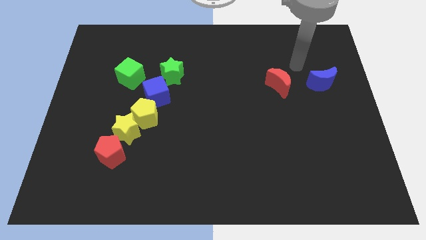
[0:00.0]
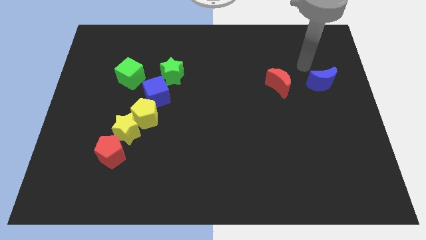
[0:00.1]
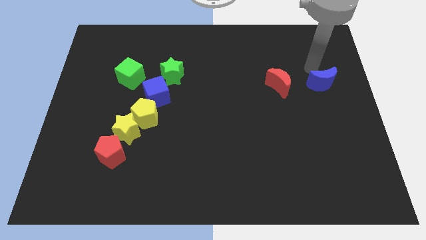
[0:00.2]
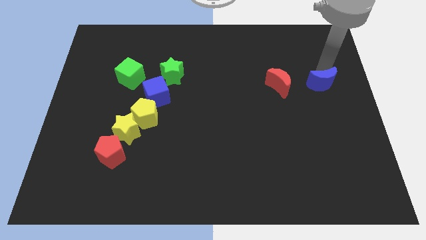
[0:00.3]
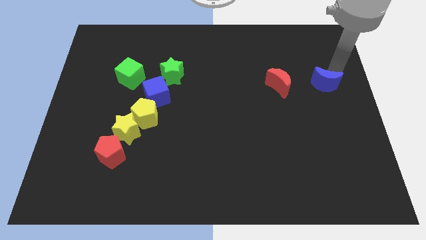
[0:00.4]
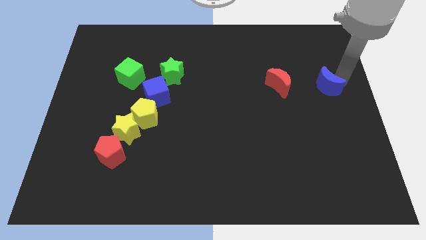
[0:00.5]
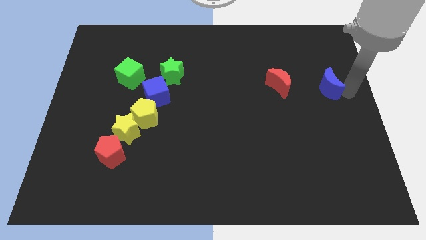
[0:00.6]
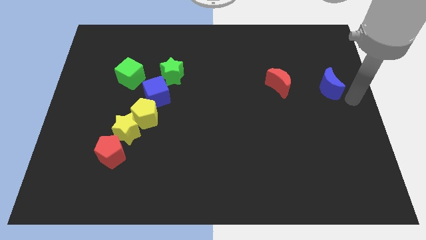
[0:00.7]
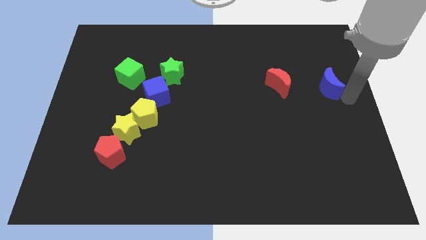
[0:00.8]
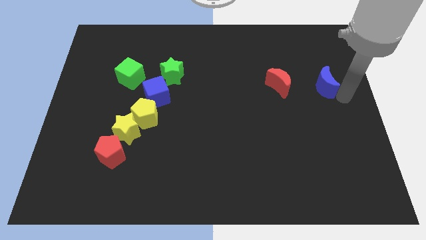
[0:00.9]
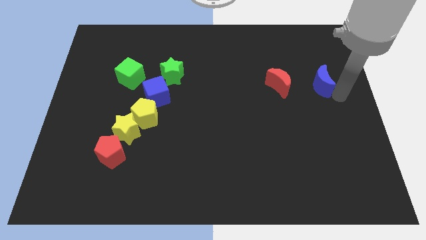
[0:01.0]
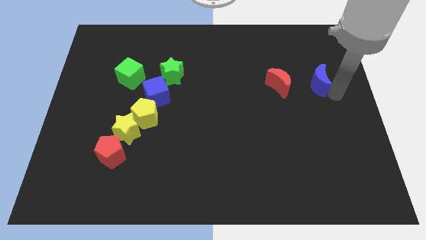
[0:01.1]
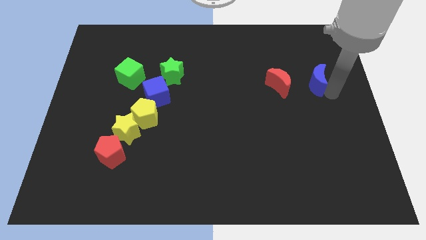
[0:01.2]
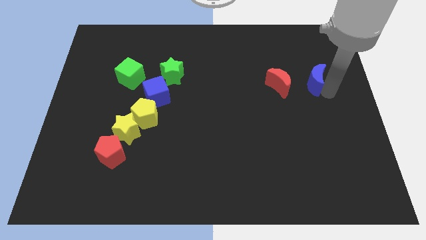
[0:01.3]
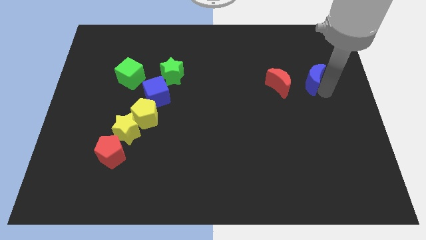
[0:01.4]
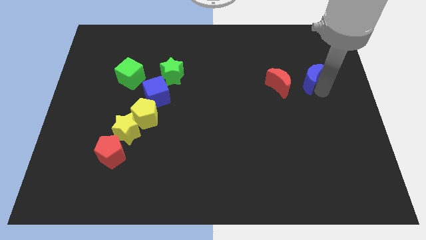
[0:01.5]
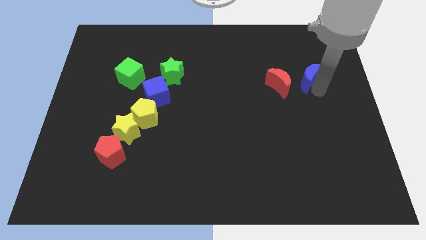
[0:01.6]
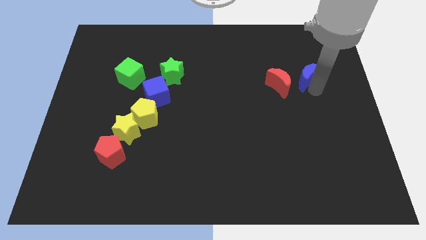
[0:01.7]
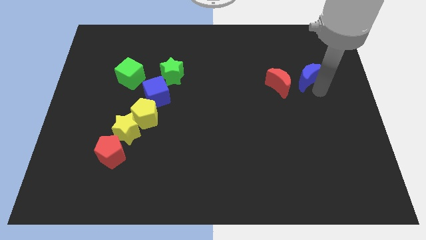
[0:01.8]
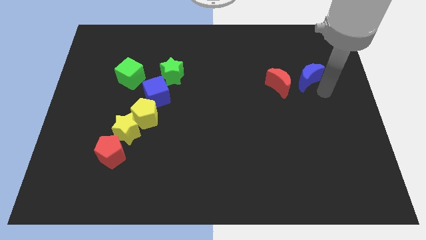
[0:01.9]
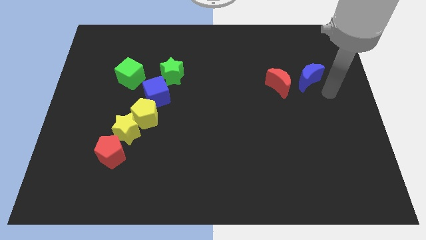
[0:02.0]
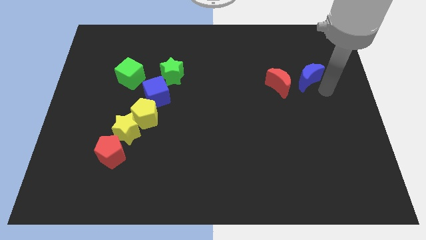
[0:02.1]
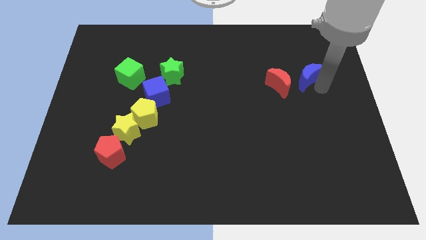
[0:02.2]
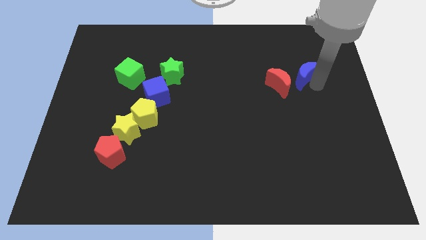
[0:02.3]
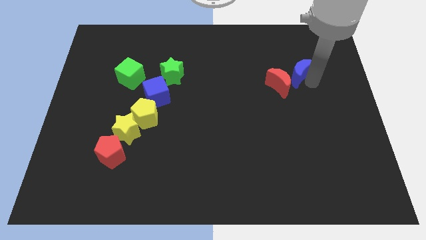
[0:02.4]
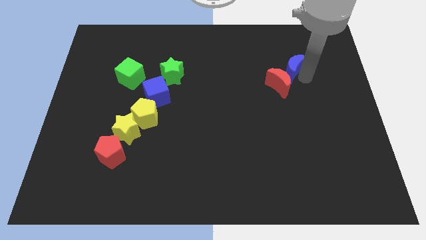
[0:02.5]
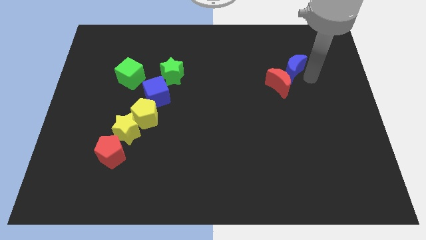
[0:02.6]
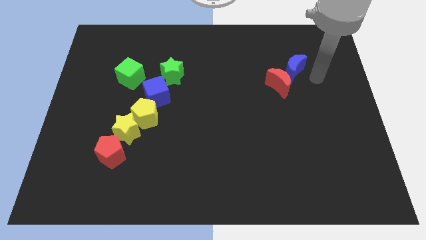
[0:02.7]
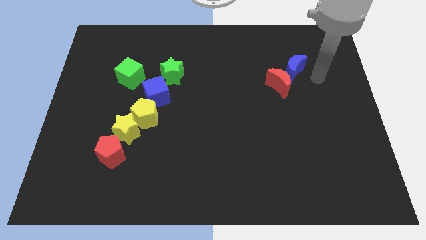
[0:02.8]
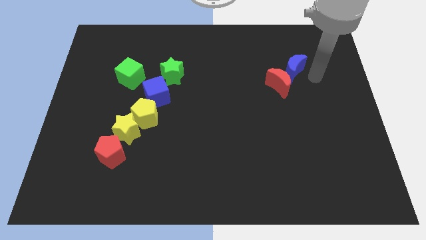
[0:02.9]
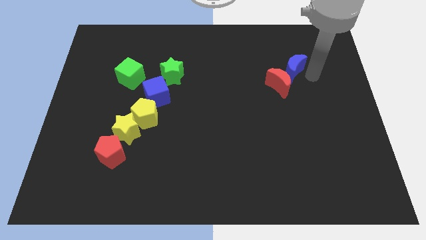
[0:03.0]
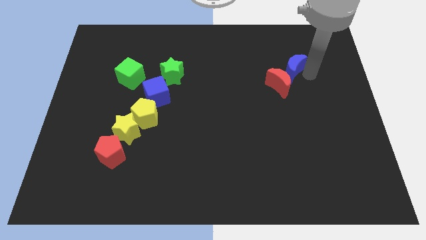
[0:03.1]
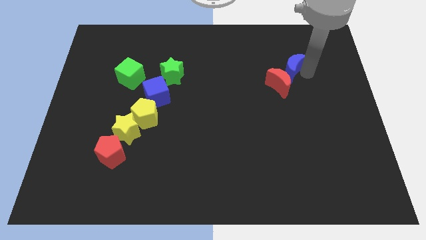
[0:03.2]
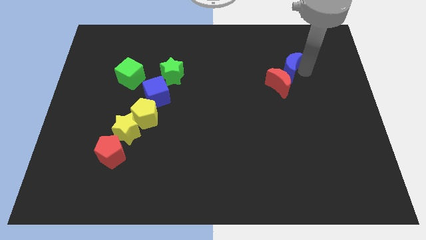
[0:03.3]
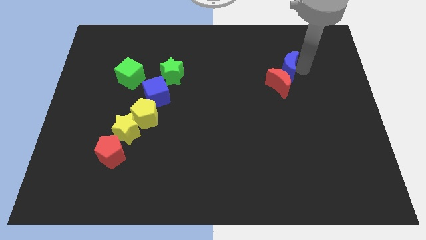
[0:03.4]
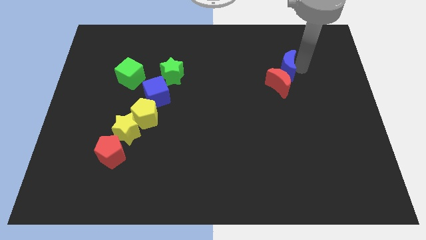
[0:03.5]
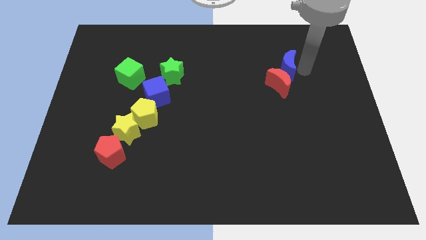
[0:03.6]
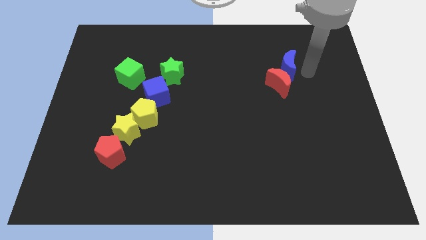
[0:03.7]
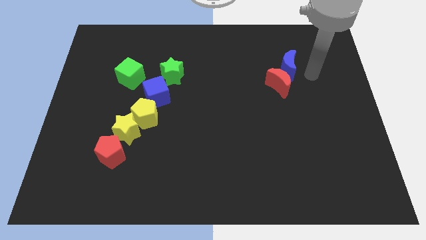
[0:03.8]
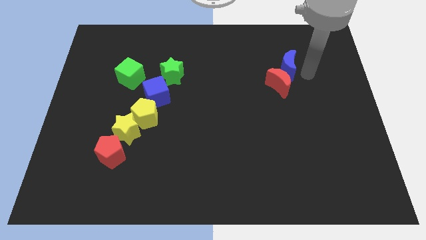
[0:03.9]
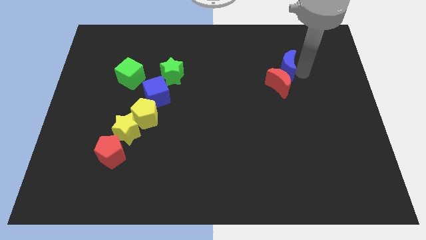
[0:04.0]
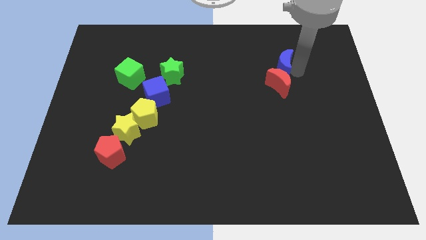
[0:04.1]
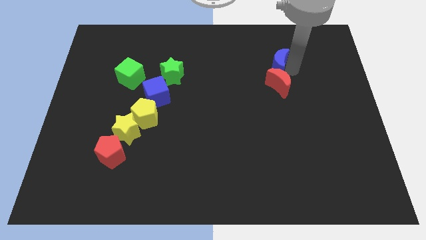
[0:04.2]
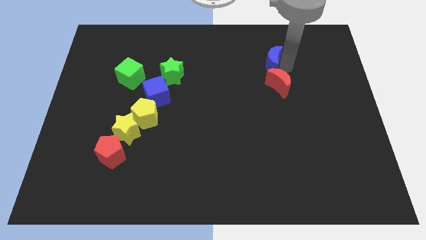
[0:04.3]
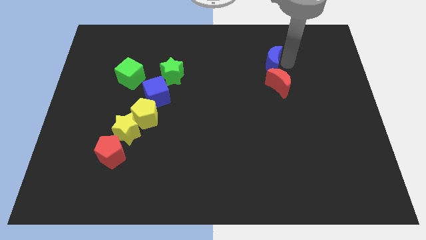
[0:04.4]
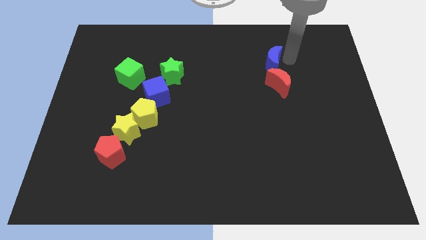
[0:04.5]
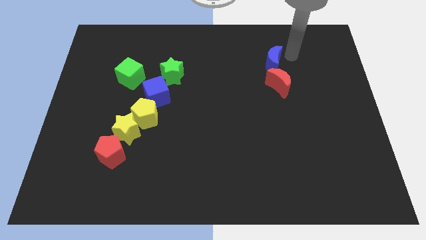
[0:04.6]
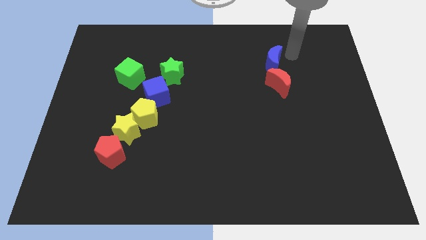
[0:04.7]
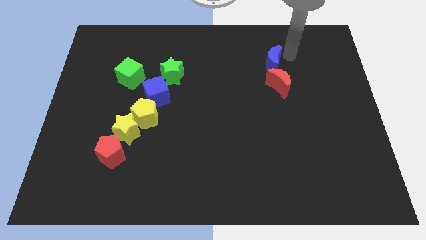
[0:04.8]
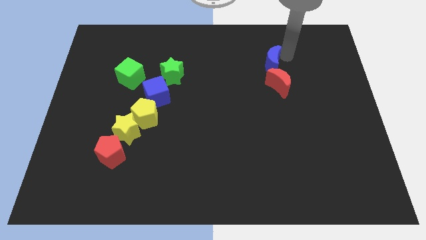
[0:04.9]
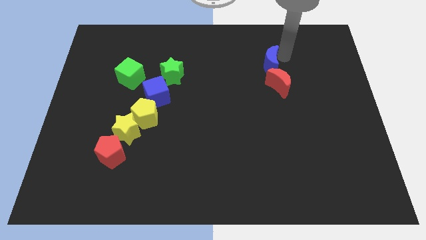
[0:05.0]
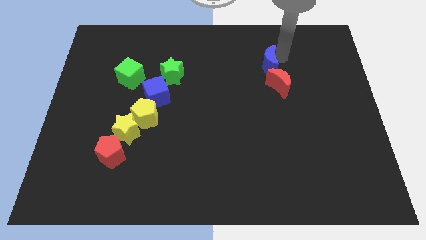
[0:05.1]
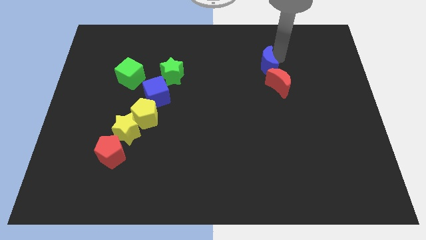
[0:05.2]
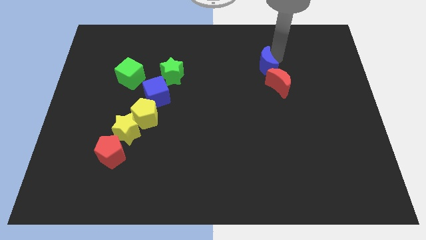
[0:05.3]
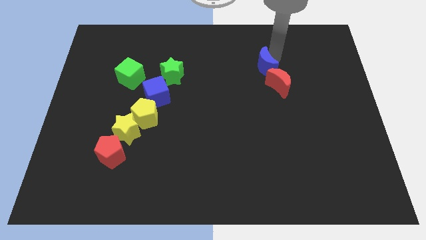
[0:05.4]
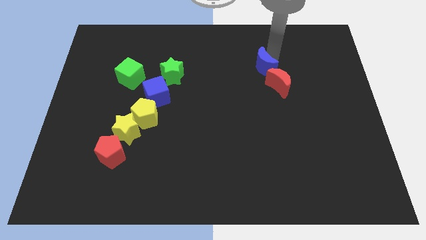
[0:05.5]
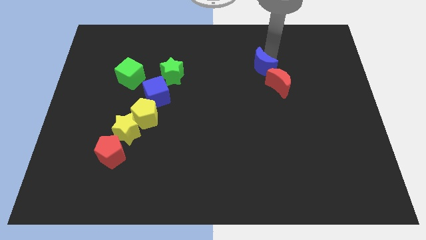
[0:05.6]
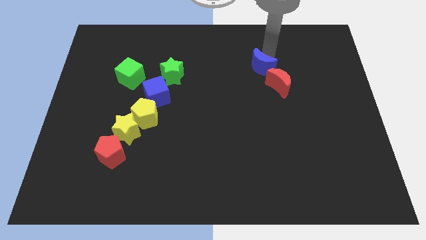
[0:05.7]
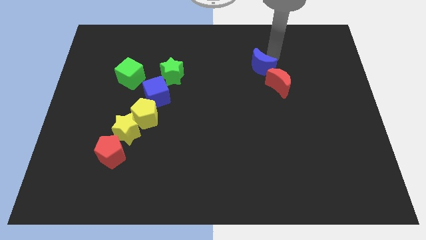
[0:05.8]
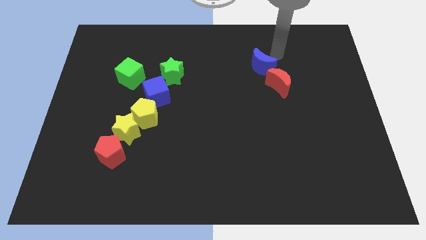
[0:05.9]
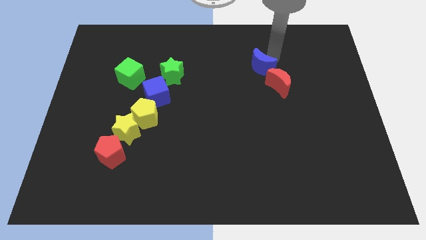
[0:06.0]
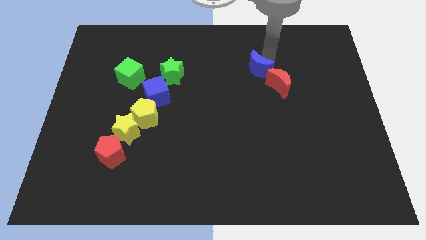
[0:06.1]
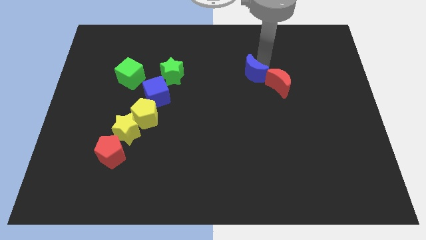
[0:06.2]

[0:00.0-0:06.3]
put the blue moon to the left side of the red moon

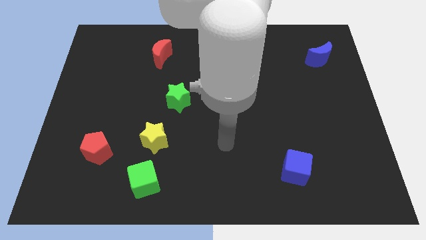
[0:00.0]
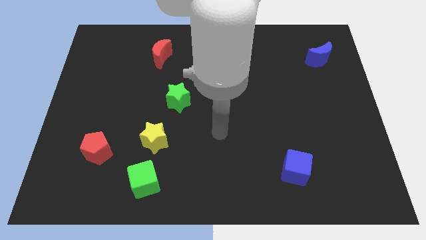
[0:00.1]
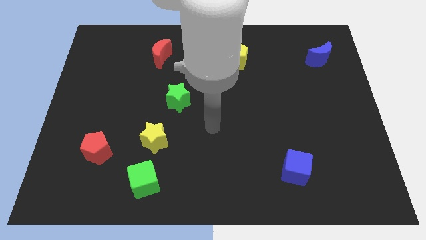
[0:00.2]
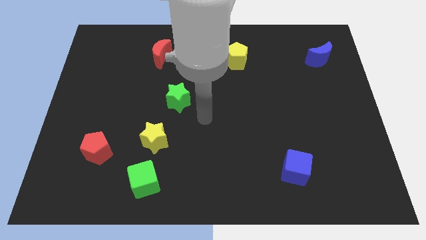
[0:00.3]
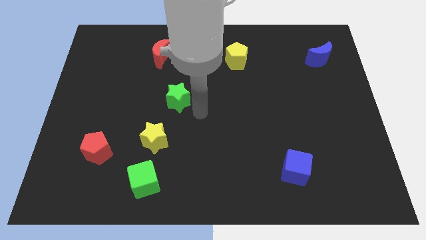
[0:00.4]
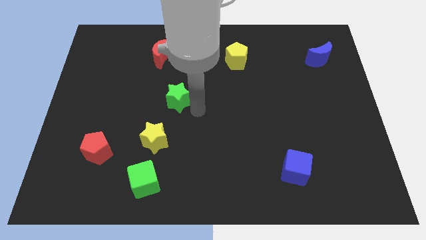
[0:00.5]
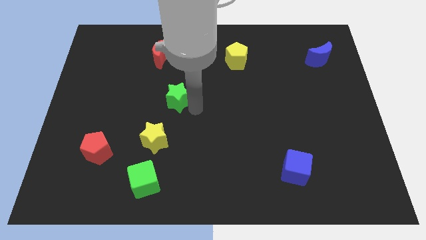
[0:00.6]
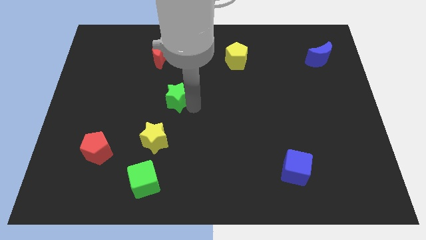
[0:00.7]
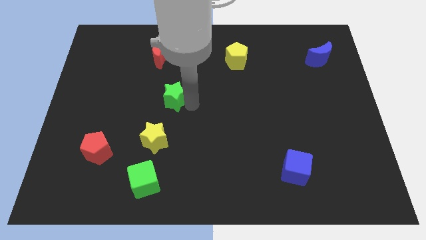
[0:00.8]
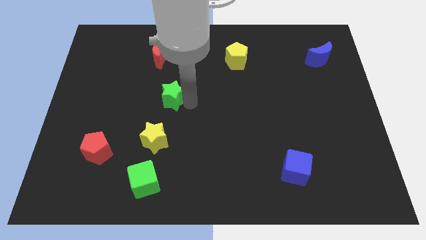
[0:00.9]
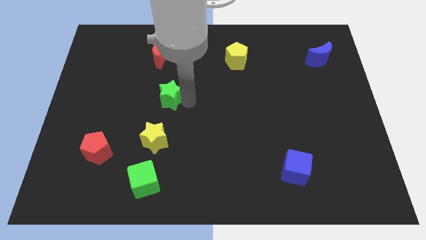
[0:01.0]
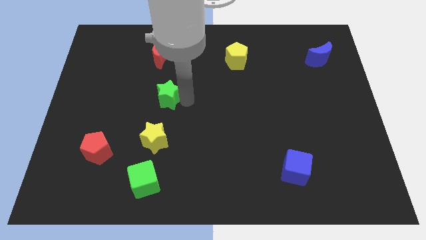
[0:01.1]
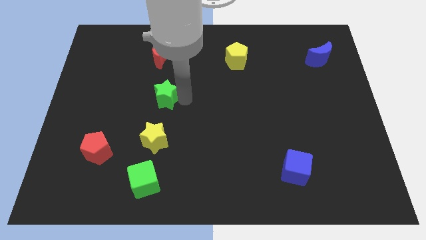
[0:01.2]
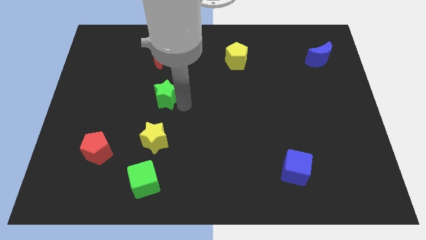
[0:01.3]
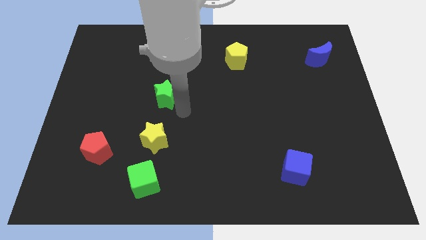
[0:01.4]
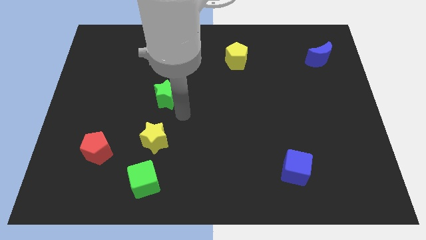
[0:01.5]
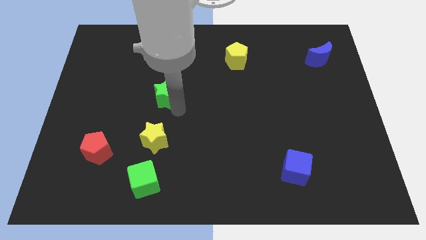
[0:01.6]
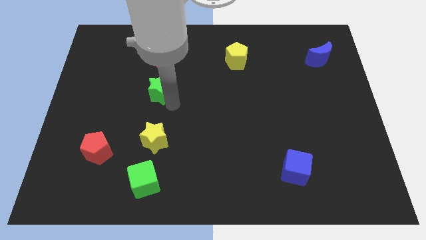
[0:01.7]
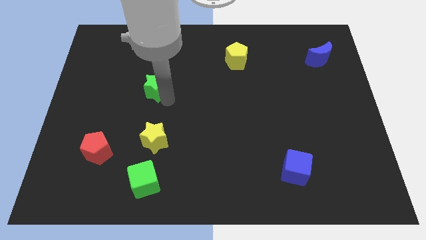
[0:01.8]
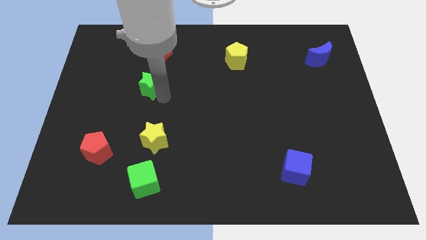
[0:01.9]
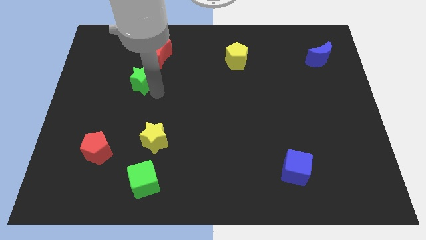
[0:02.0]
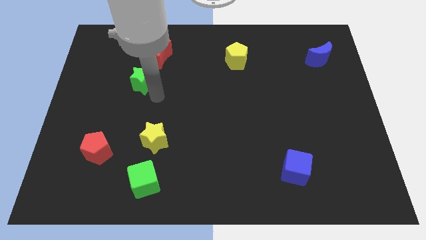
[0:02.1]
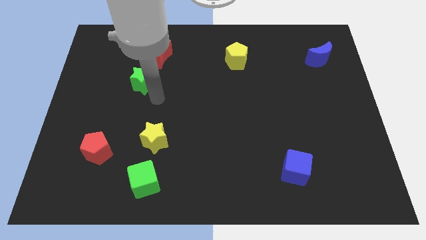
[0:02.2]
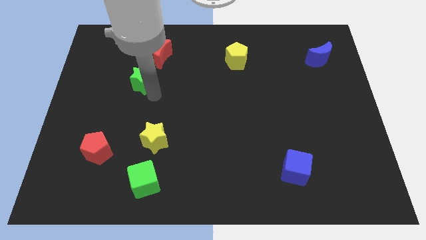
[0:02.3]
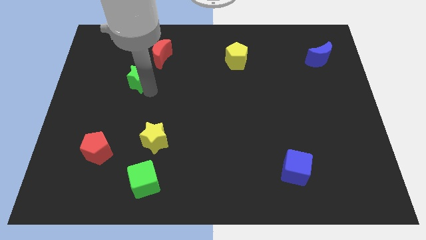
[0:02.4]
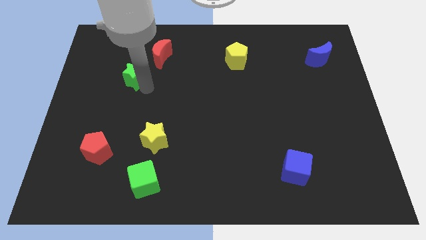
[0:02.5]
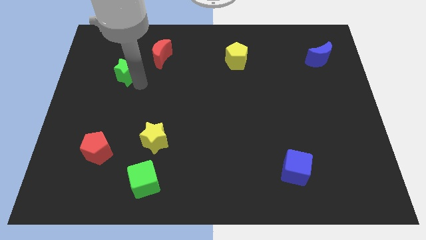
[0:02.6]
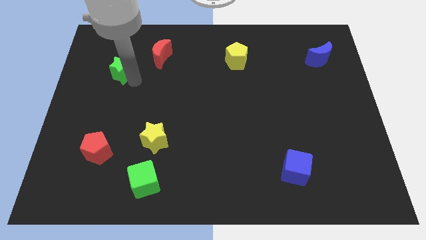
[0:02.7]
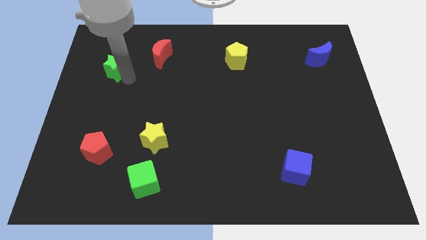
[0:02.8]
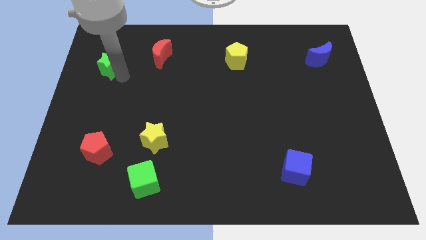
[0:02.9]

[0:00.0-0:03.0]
push the green star to the left side of the red moon
